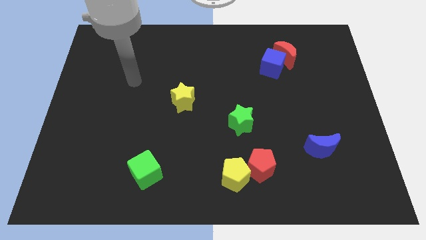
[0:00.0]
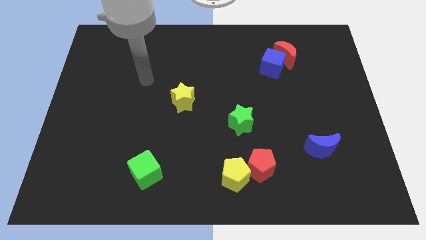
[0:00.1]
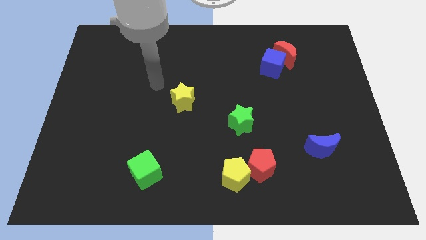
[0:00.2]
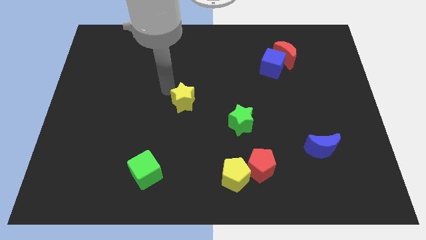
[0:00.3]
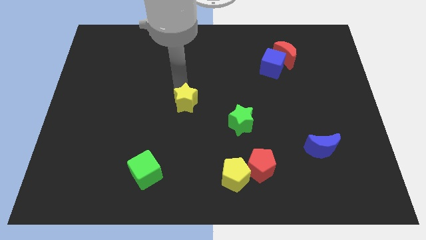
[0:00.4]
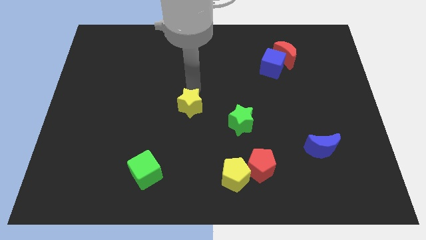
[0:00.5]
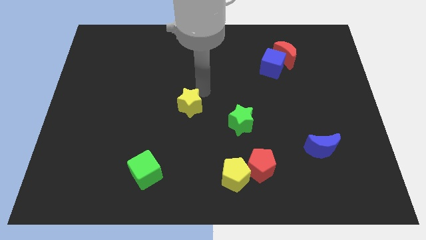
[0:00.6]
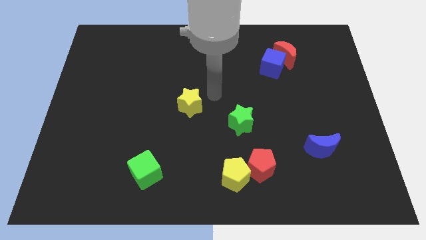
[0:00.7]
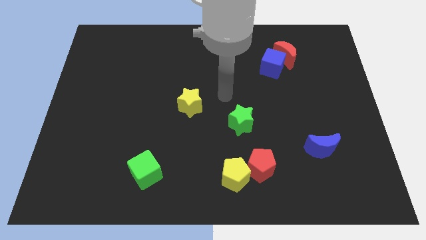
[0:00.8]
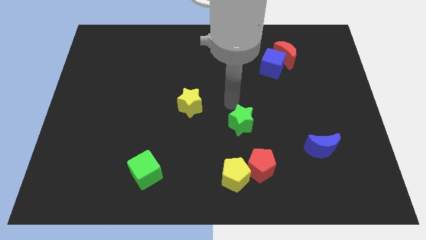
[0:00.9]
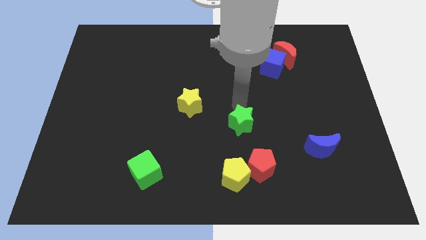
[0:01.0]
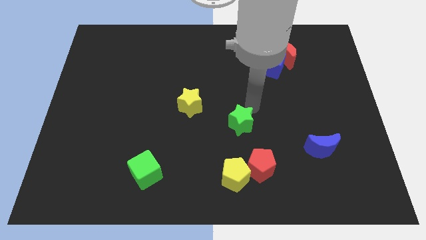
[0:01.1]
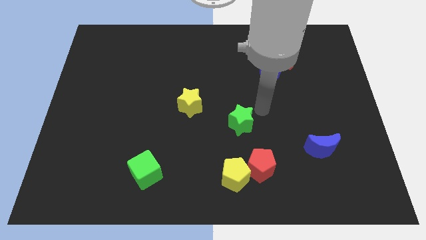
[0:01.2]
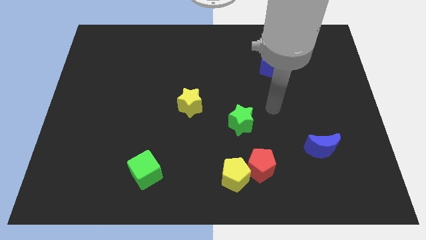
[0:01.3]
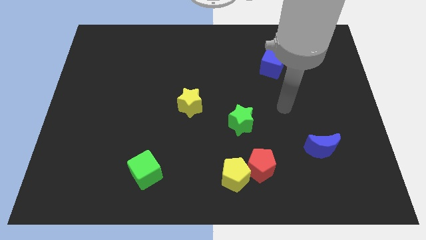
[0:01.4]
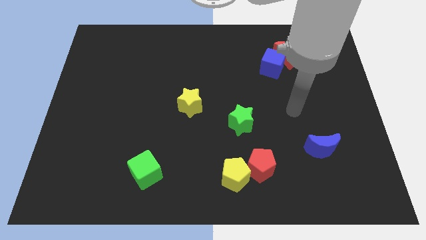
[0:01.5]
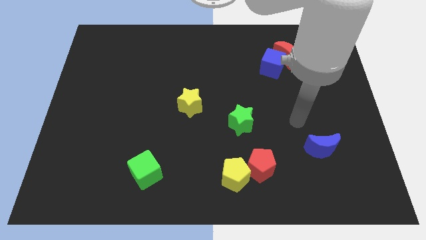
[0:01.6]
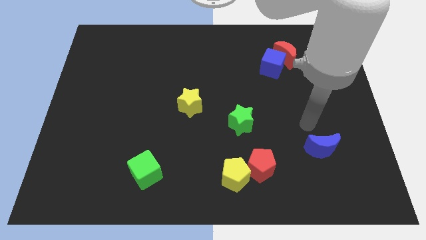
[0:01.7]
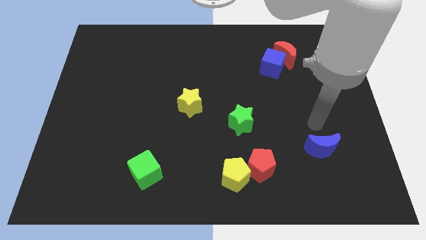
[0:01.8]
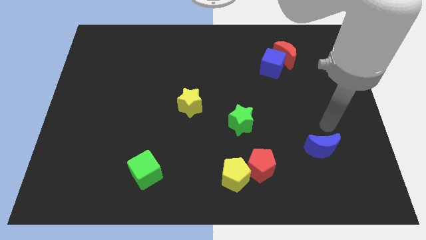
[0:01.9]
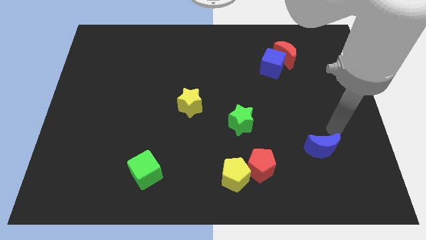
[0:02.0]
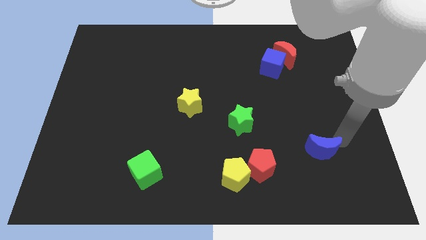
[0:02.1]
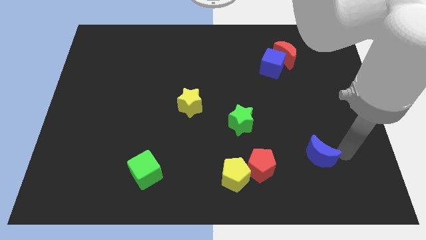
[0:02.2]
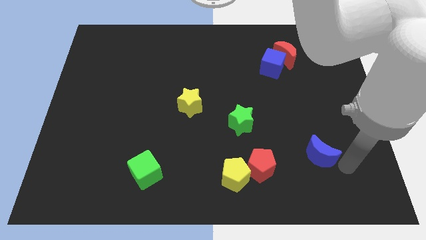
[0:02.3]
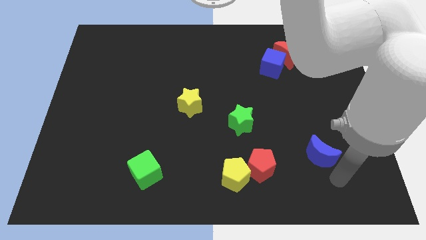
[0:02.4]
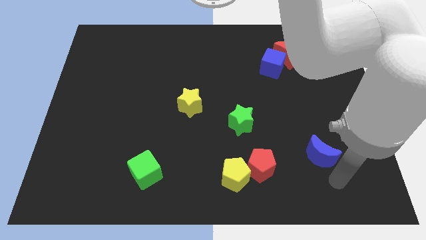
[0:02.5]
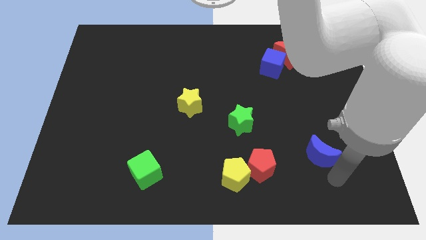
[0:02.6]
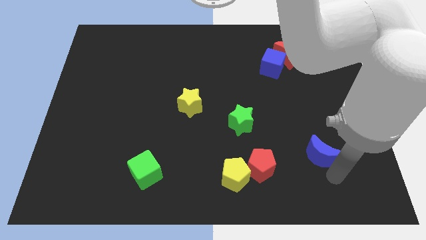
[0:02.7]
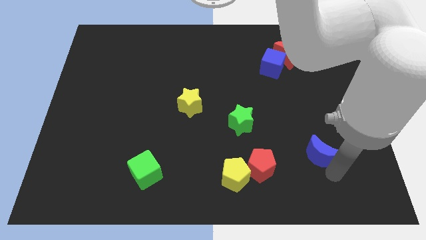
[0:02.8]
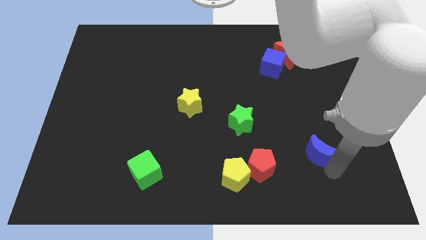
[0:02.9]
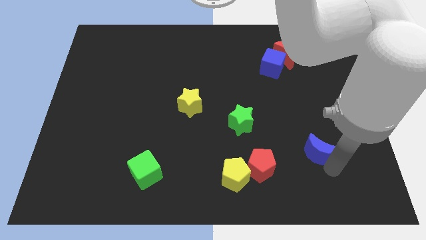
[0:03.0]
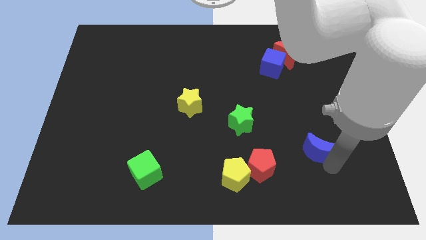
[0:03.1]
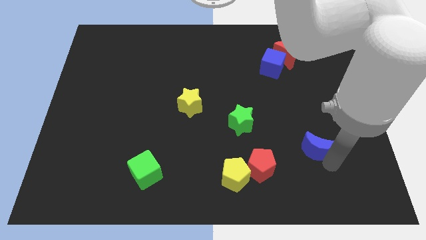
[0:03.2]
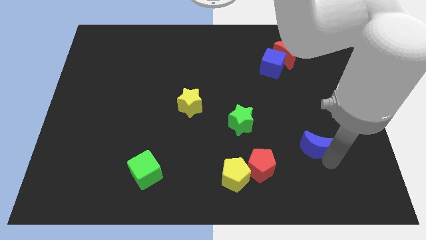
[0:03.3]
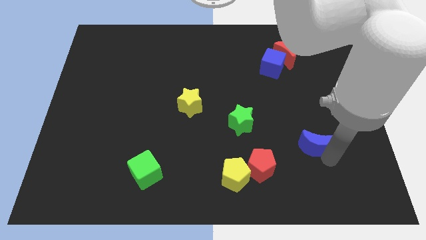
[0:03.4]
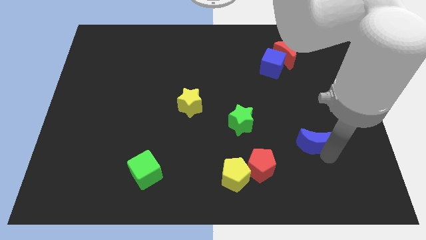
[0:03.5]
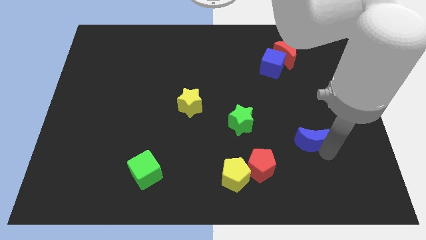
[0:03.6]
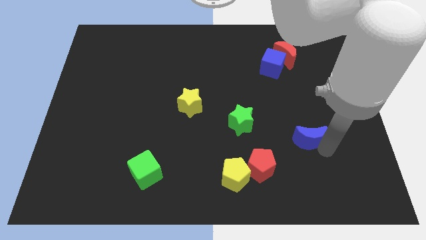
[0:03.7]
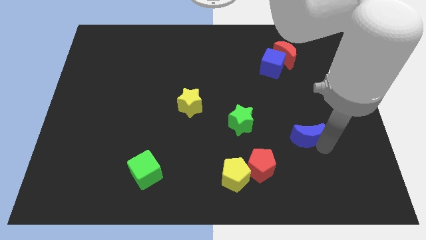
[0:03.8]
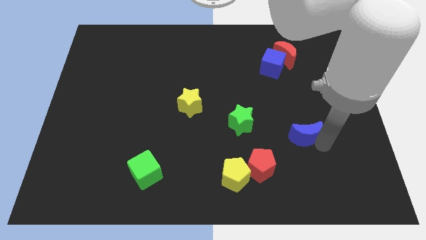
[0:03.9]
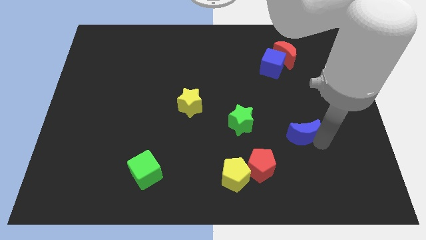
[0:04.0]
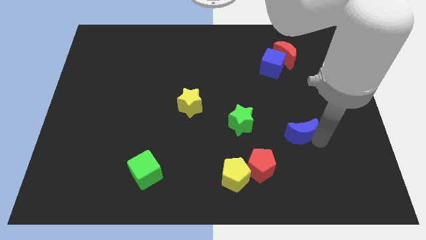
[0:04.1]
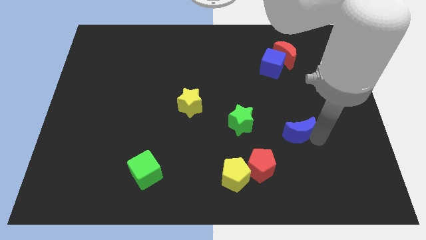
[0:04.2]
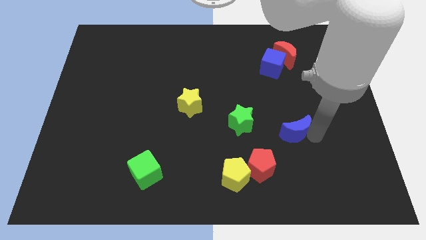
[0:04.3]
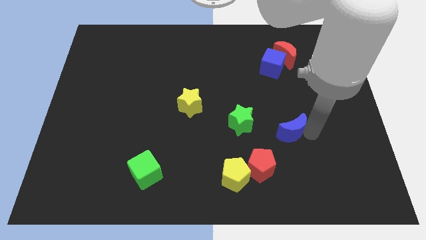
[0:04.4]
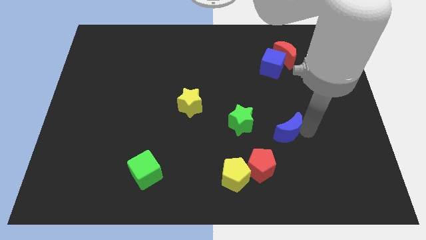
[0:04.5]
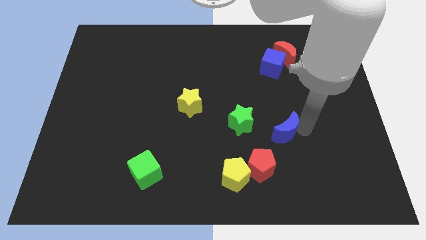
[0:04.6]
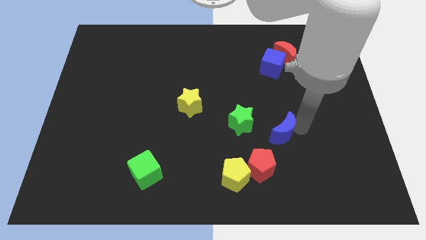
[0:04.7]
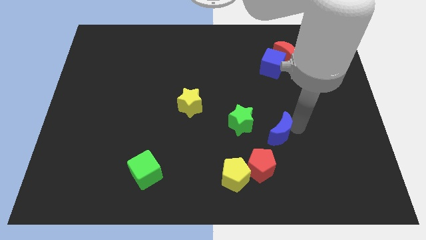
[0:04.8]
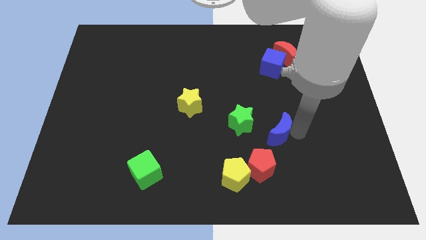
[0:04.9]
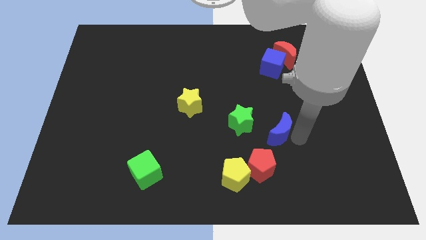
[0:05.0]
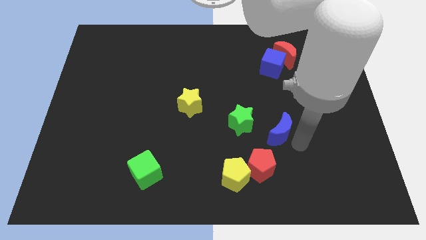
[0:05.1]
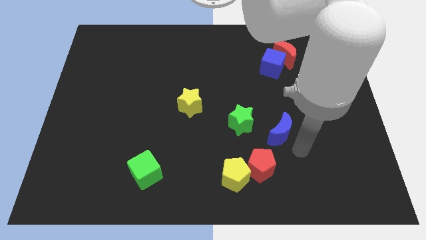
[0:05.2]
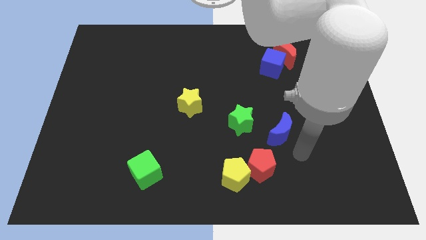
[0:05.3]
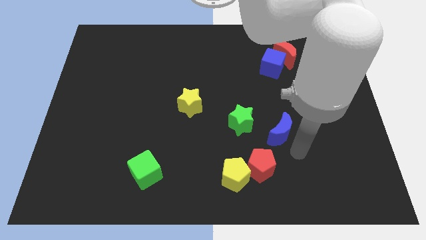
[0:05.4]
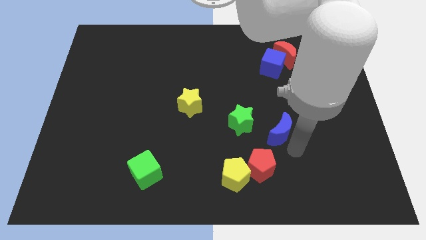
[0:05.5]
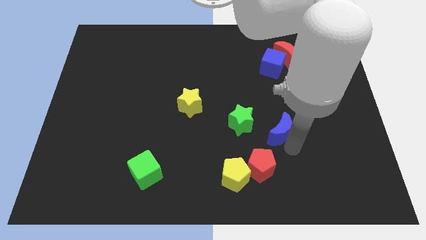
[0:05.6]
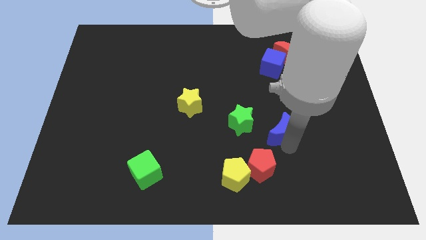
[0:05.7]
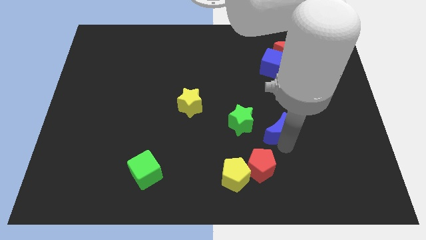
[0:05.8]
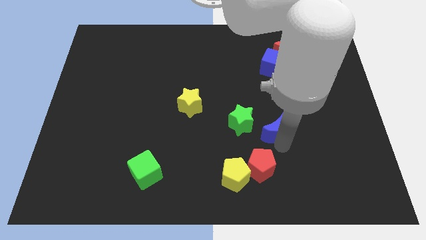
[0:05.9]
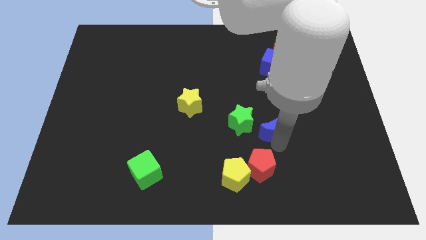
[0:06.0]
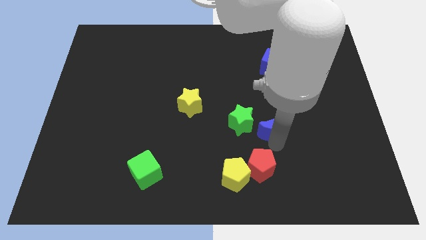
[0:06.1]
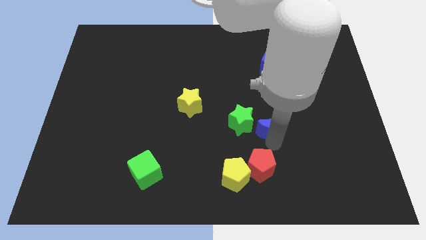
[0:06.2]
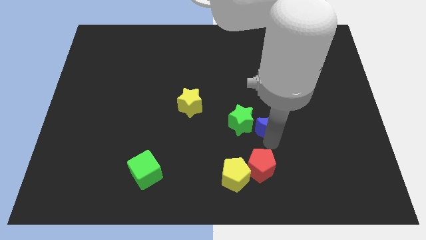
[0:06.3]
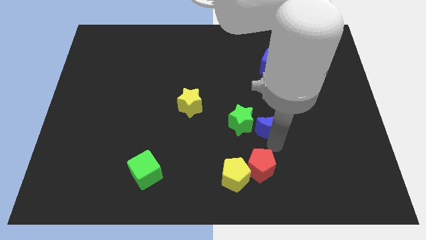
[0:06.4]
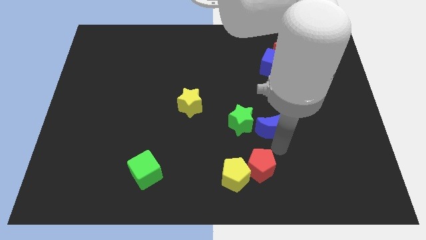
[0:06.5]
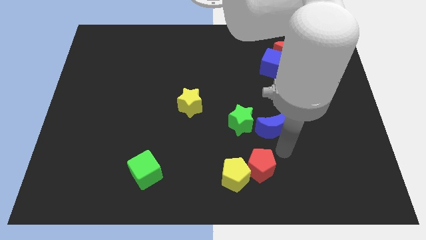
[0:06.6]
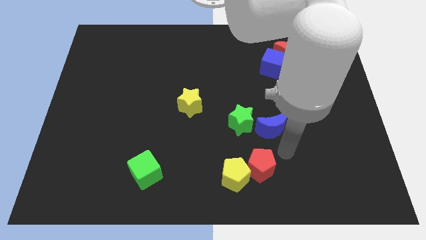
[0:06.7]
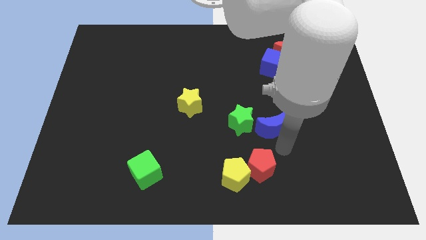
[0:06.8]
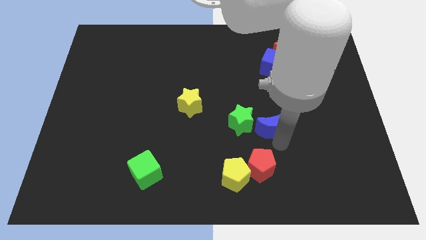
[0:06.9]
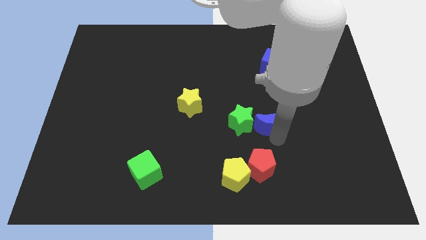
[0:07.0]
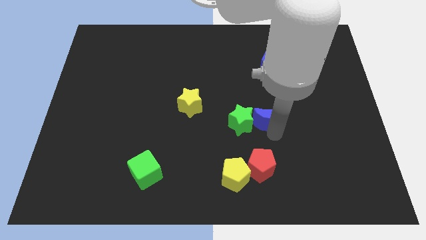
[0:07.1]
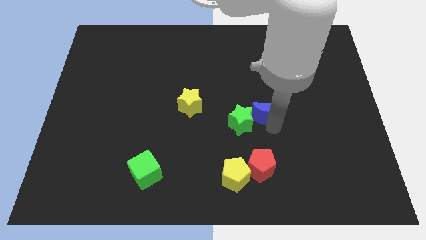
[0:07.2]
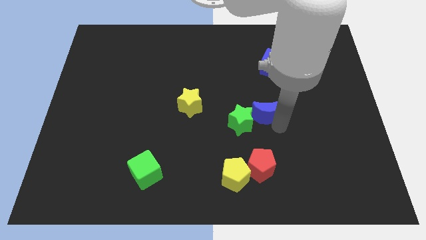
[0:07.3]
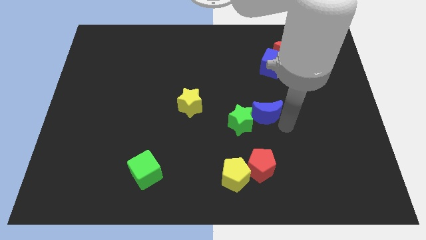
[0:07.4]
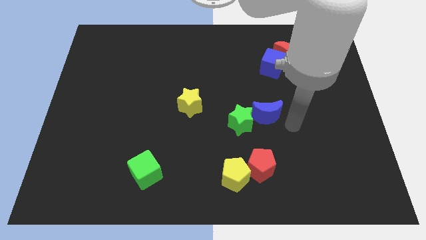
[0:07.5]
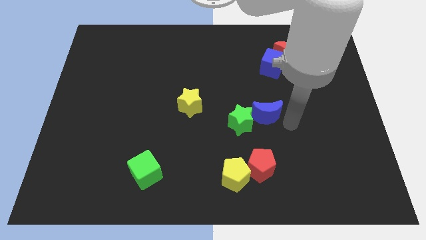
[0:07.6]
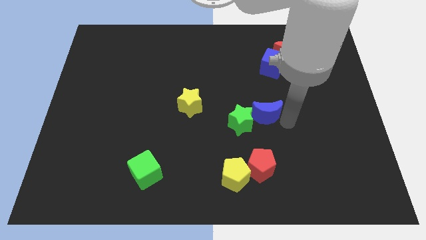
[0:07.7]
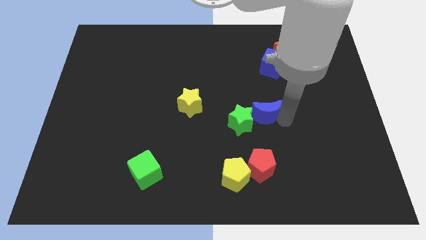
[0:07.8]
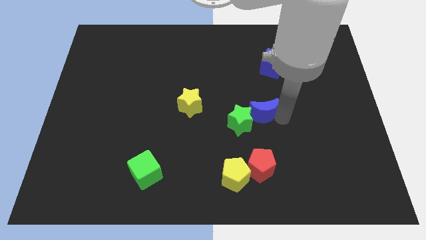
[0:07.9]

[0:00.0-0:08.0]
move the blue moon to the center
